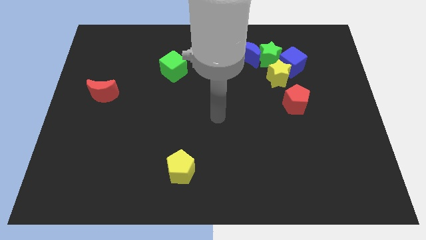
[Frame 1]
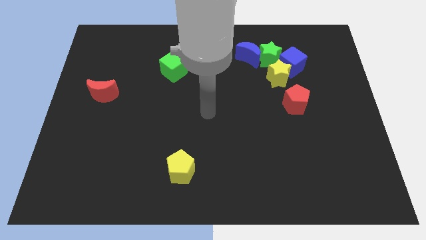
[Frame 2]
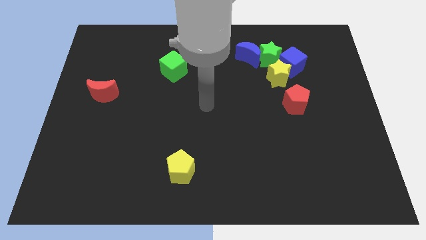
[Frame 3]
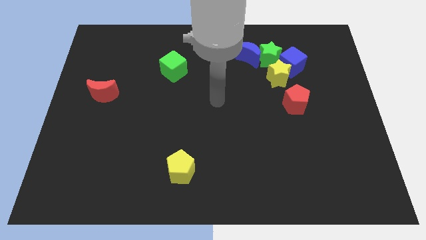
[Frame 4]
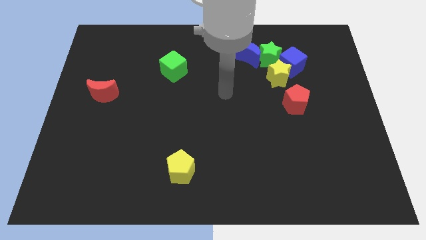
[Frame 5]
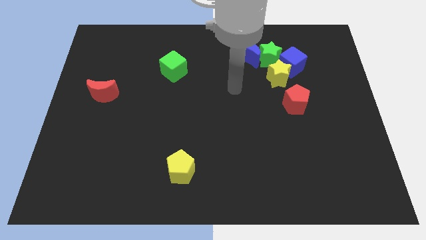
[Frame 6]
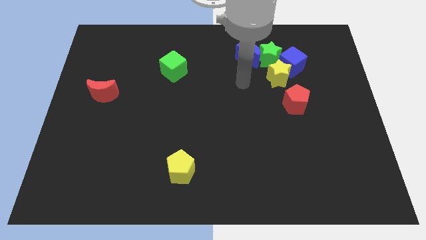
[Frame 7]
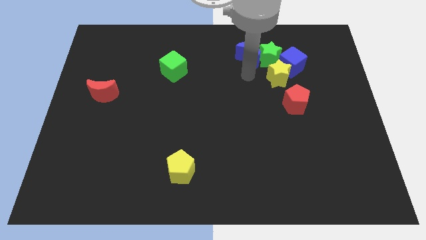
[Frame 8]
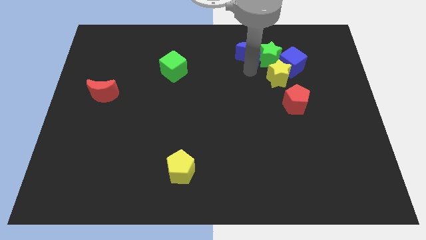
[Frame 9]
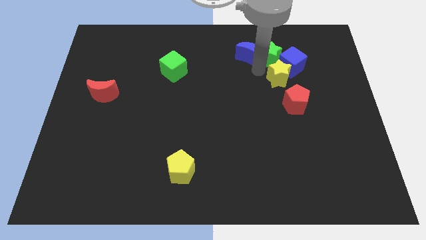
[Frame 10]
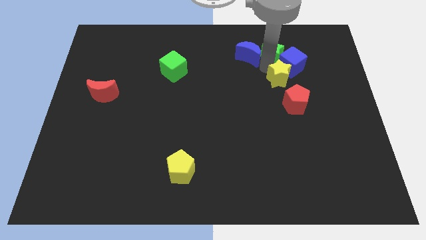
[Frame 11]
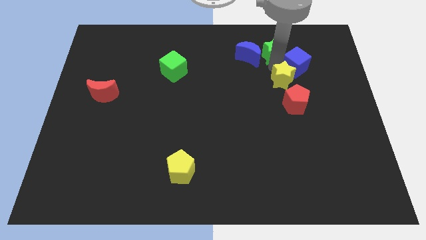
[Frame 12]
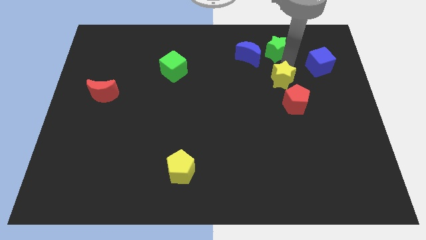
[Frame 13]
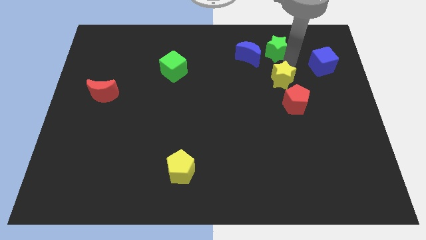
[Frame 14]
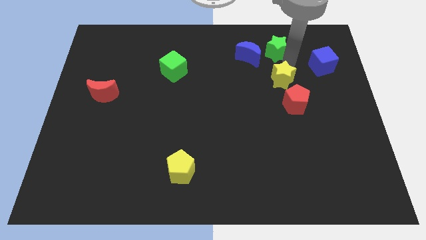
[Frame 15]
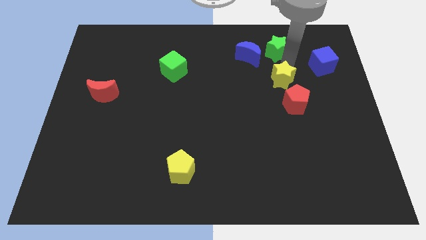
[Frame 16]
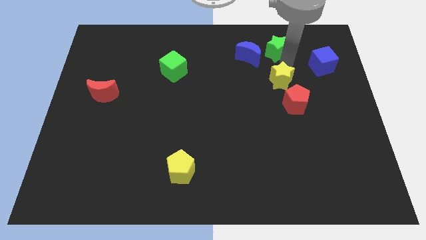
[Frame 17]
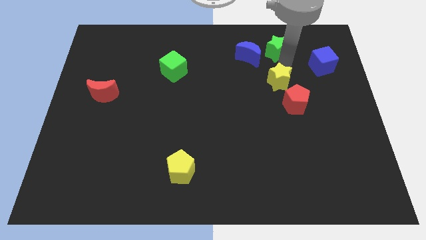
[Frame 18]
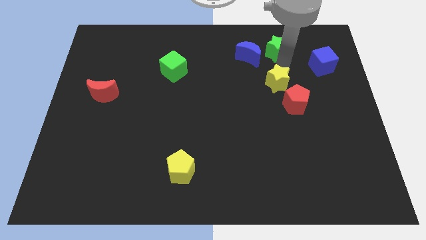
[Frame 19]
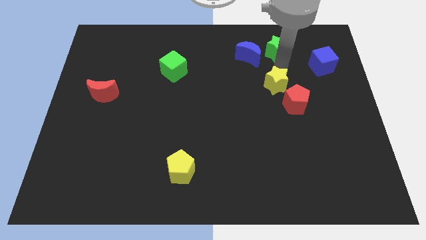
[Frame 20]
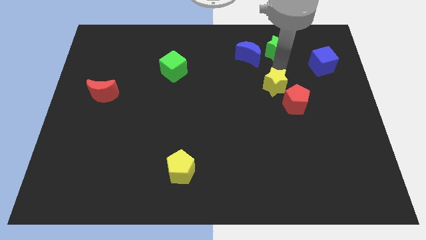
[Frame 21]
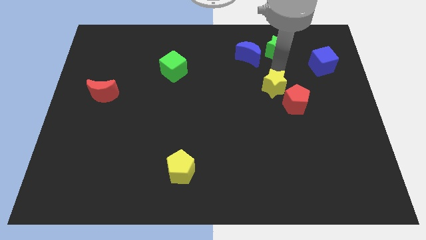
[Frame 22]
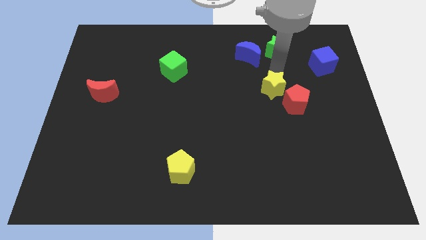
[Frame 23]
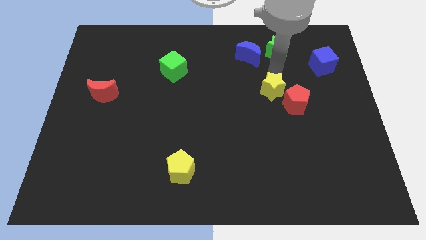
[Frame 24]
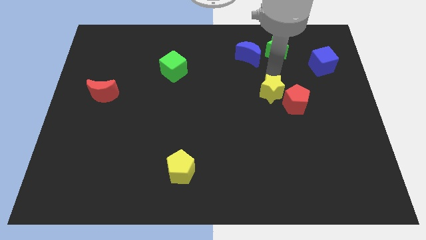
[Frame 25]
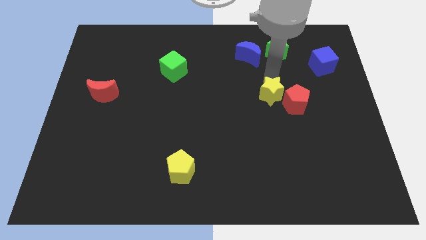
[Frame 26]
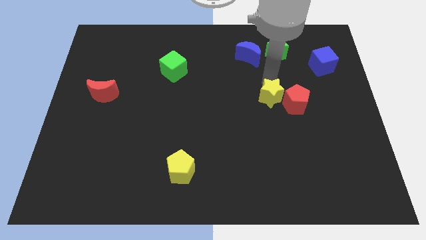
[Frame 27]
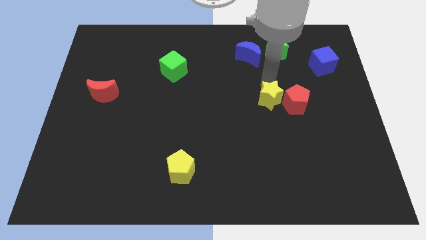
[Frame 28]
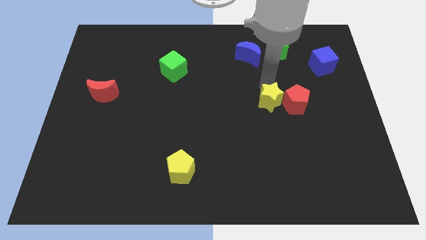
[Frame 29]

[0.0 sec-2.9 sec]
slide the yellow star down somewhat

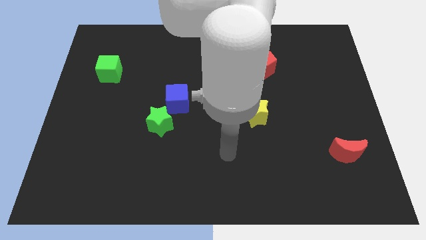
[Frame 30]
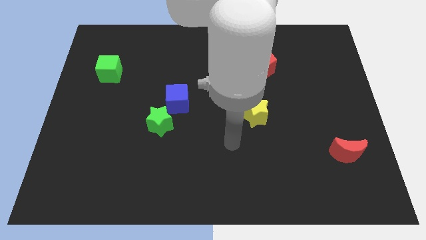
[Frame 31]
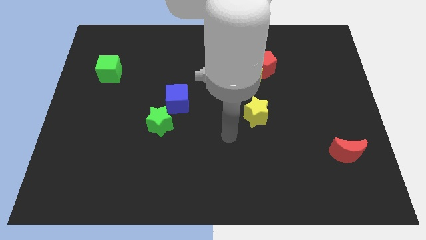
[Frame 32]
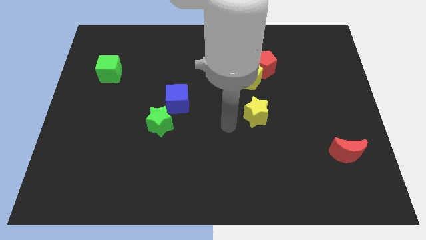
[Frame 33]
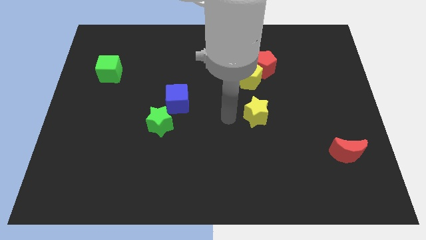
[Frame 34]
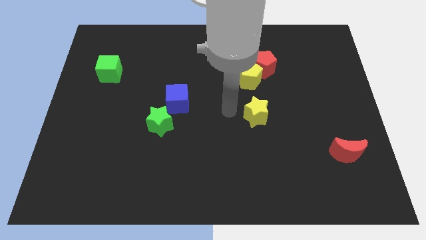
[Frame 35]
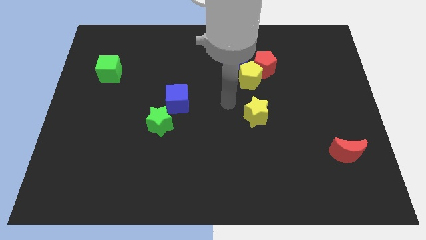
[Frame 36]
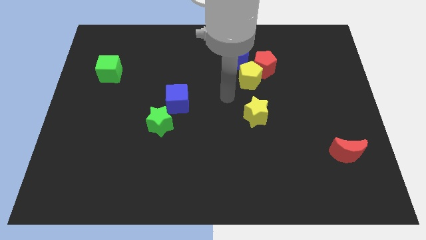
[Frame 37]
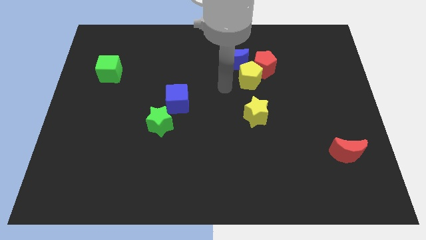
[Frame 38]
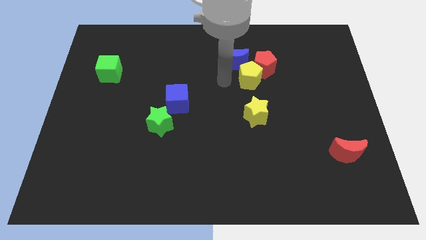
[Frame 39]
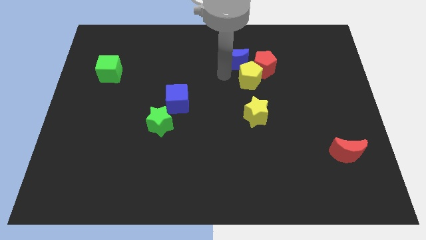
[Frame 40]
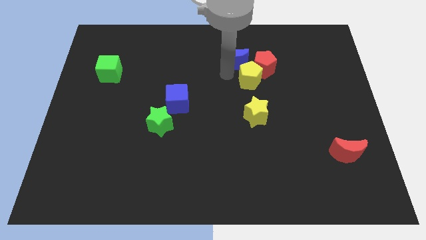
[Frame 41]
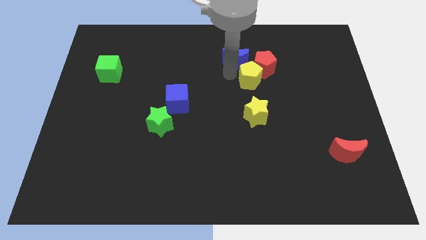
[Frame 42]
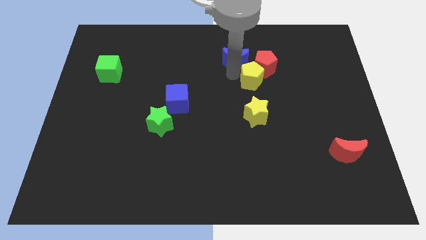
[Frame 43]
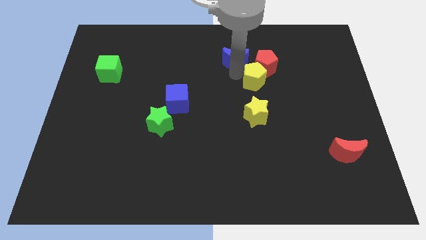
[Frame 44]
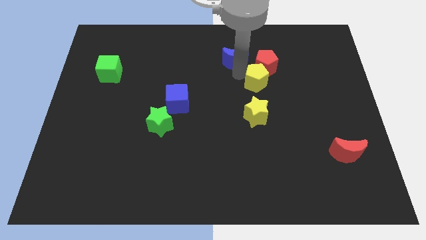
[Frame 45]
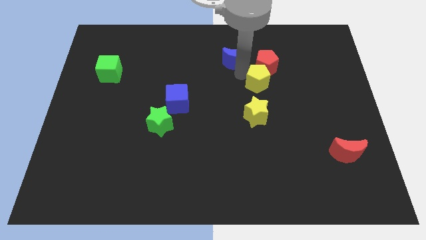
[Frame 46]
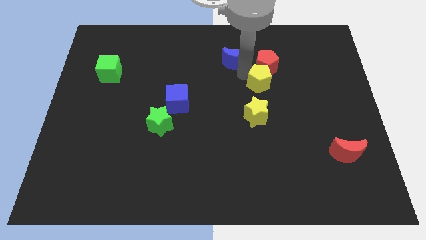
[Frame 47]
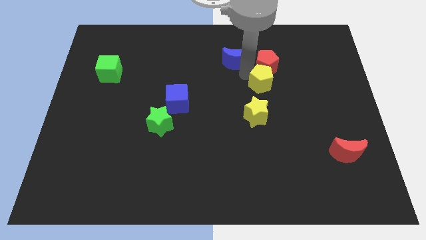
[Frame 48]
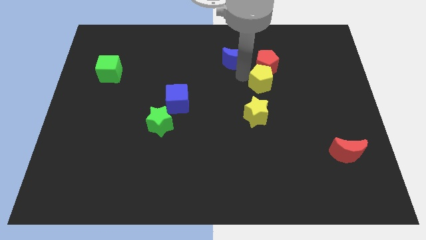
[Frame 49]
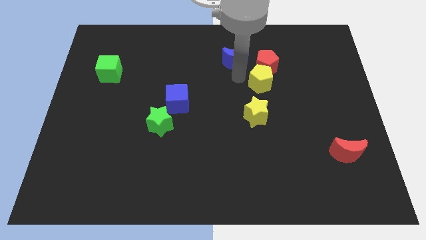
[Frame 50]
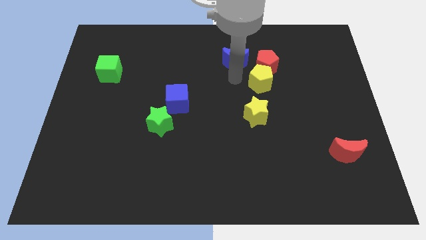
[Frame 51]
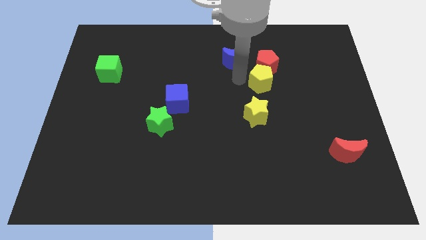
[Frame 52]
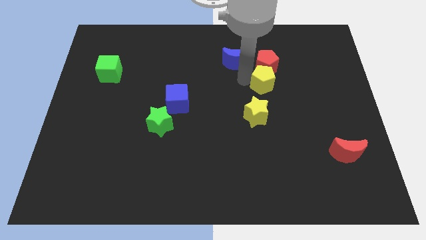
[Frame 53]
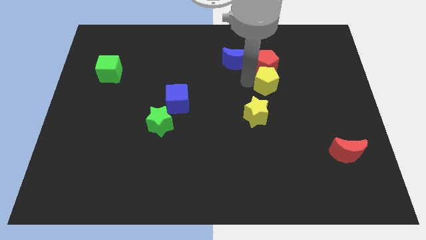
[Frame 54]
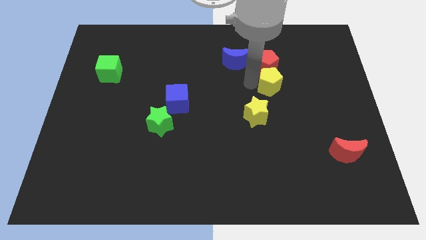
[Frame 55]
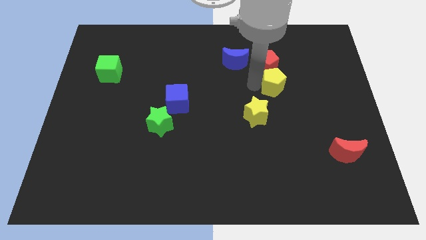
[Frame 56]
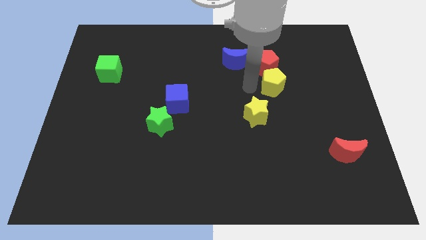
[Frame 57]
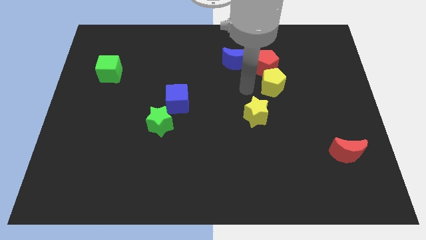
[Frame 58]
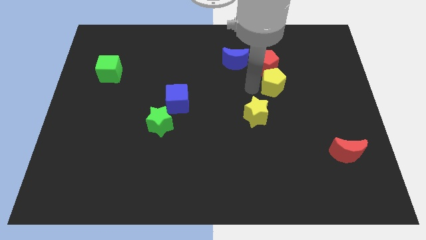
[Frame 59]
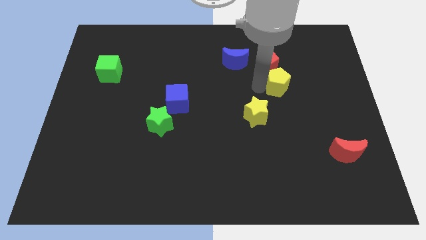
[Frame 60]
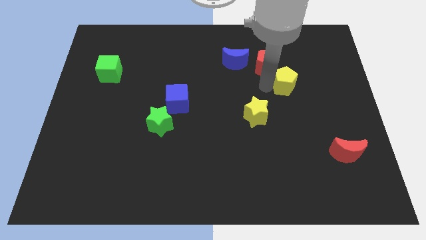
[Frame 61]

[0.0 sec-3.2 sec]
slightly move the yellow pentagon right

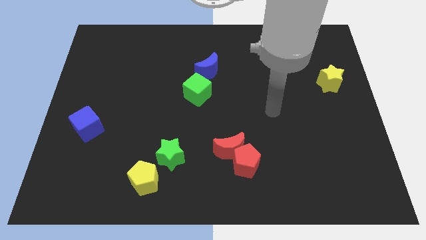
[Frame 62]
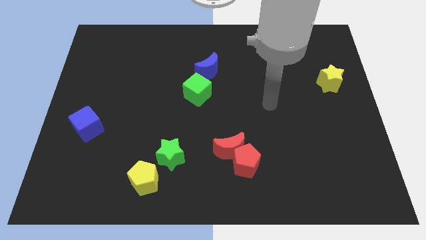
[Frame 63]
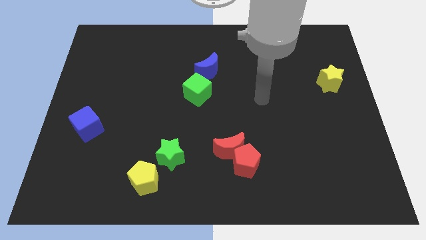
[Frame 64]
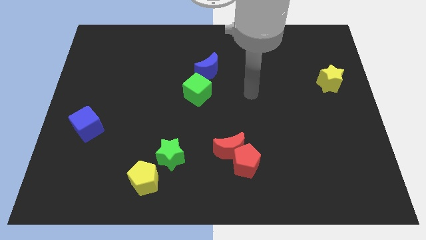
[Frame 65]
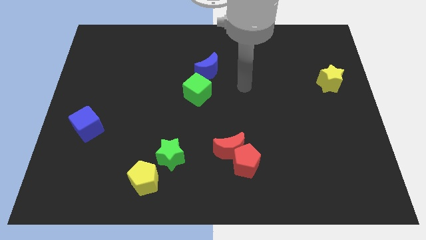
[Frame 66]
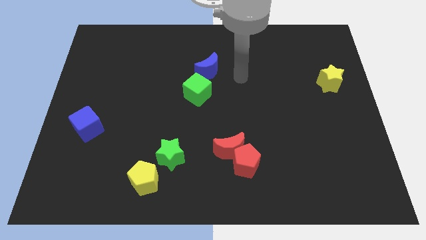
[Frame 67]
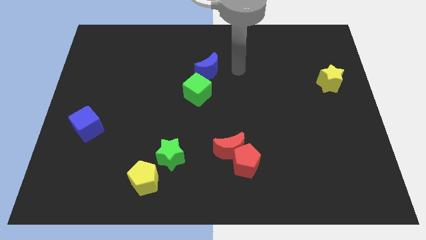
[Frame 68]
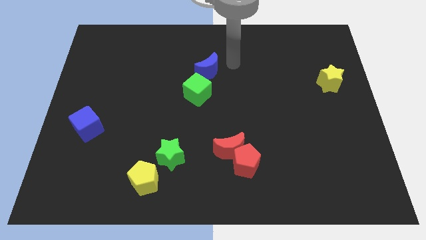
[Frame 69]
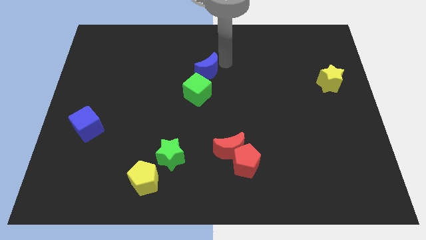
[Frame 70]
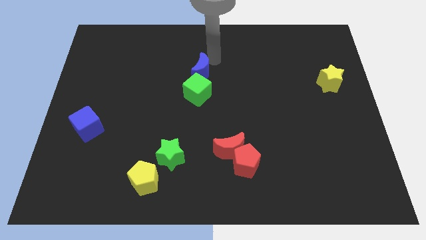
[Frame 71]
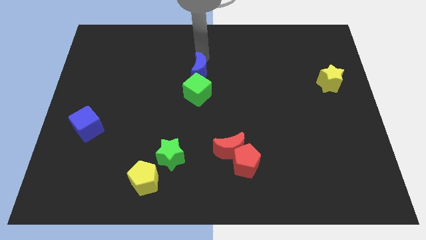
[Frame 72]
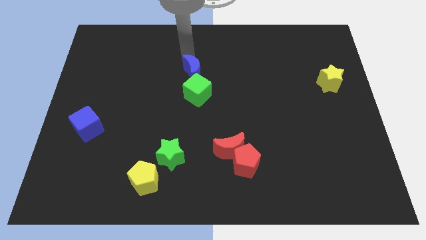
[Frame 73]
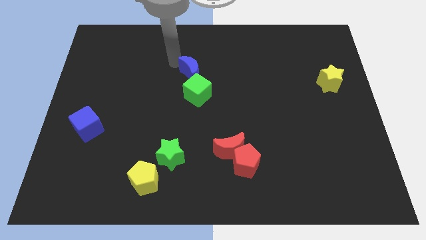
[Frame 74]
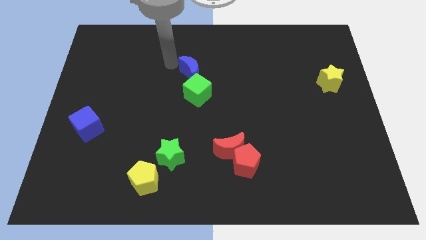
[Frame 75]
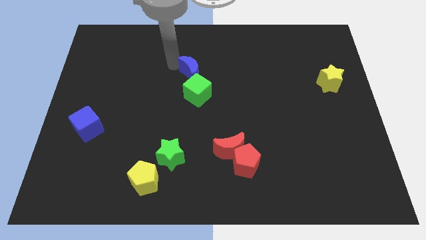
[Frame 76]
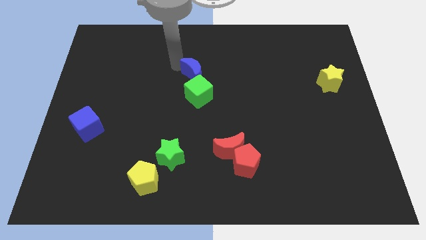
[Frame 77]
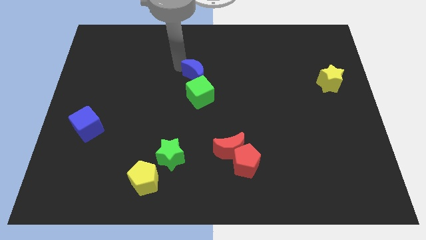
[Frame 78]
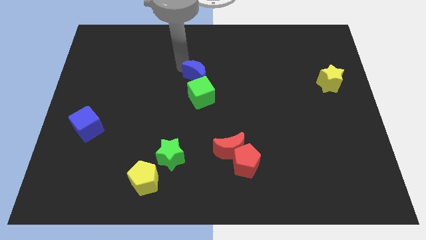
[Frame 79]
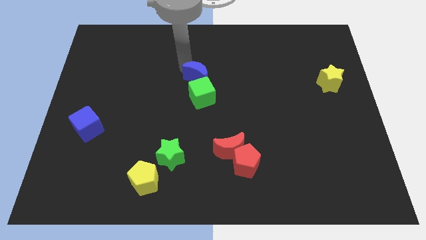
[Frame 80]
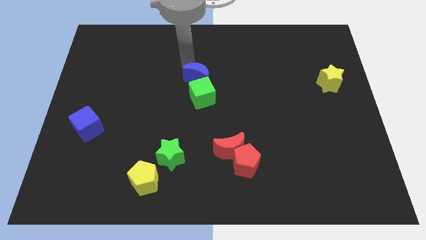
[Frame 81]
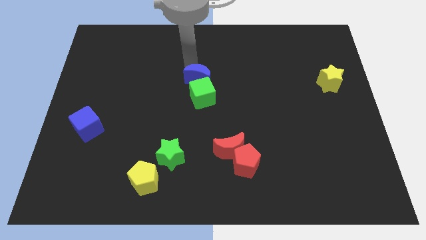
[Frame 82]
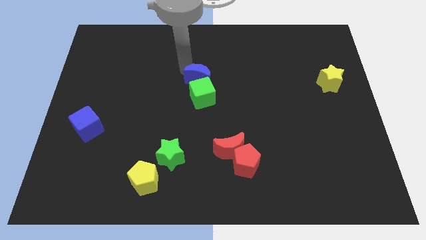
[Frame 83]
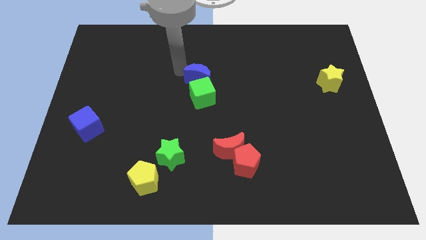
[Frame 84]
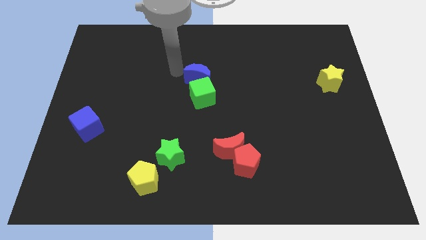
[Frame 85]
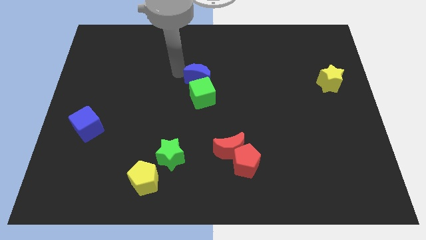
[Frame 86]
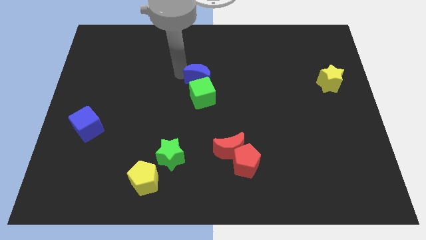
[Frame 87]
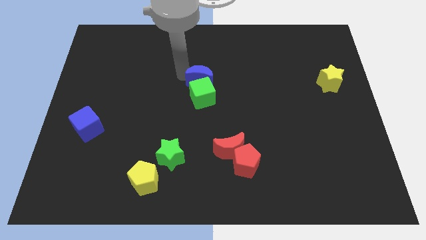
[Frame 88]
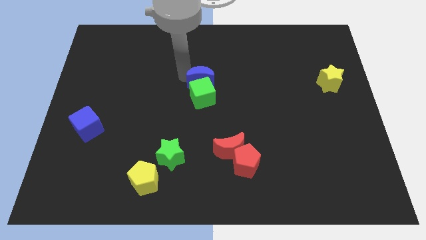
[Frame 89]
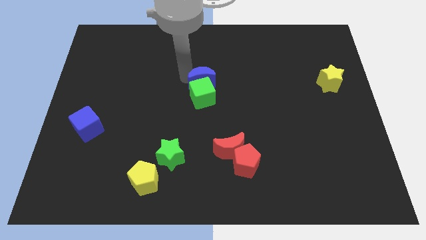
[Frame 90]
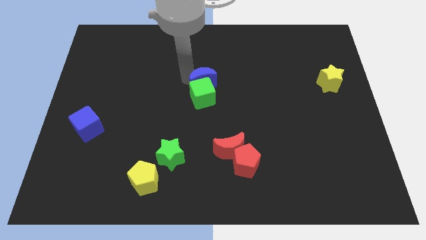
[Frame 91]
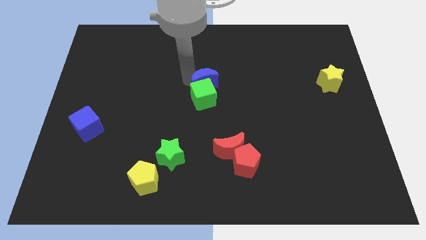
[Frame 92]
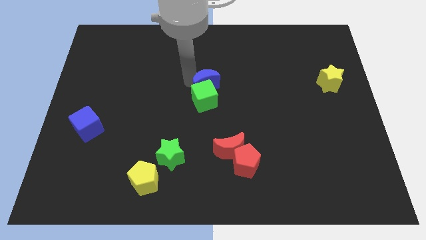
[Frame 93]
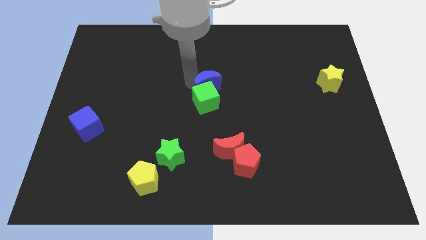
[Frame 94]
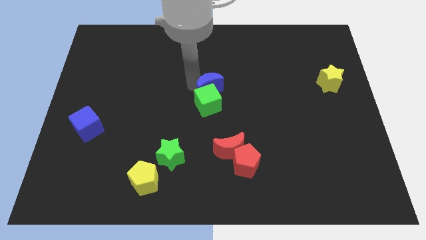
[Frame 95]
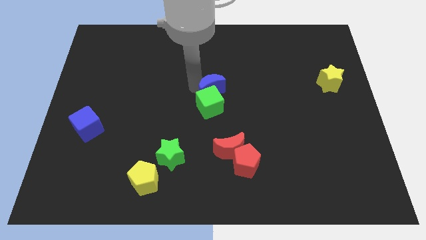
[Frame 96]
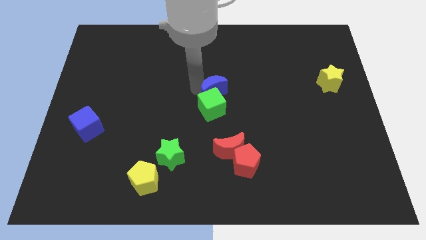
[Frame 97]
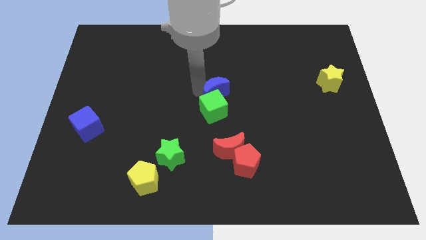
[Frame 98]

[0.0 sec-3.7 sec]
move the blue moon downwards somewhat
